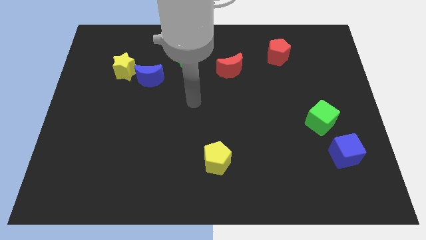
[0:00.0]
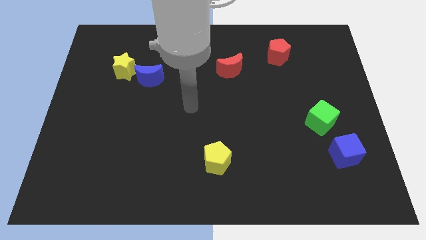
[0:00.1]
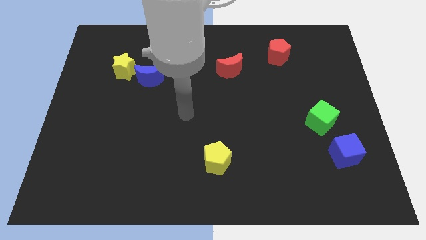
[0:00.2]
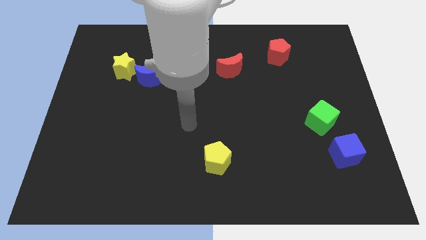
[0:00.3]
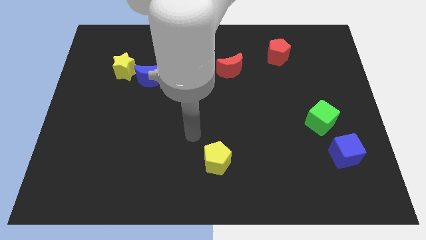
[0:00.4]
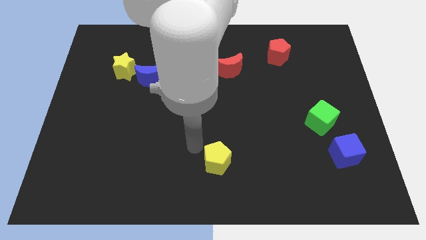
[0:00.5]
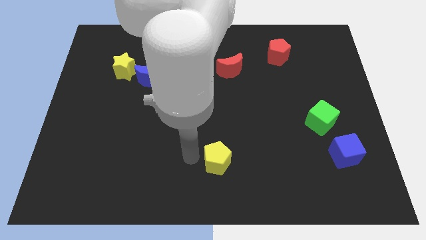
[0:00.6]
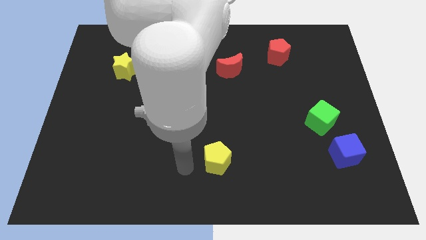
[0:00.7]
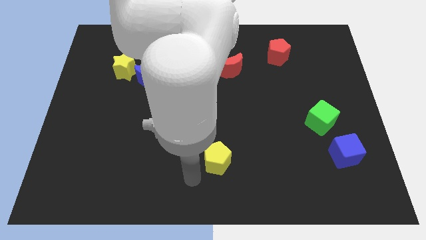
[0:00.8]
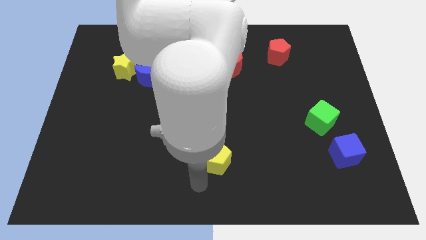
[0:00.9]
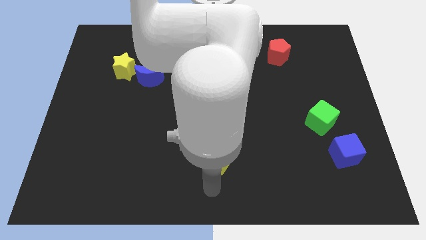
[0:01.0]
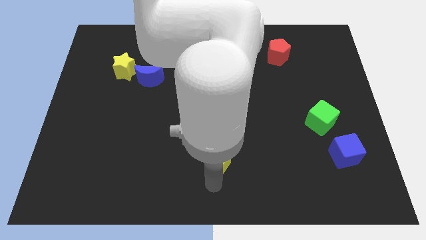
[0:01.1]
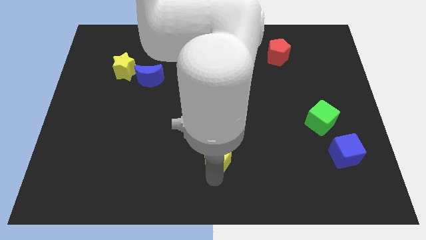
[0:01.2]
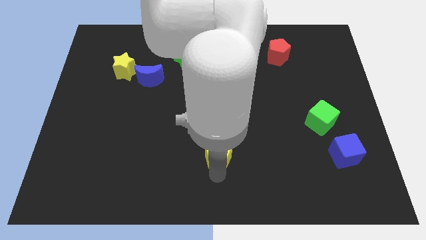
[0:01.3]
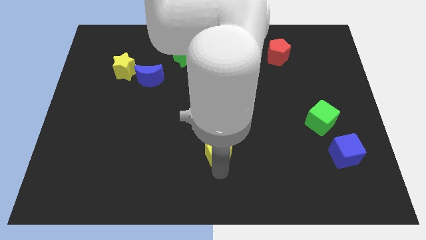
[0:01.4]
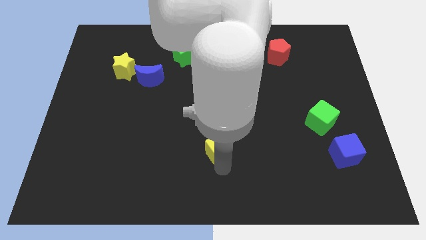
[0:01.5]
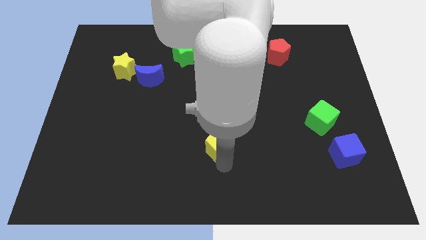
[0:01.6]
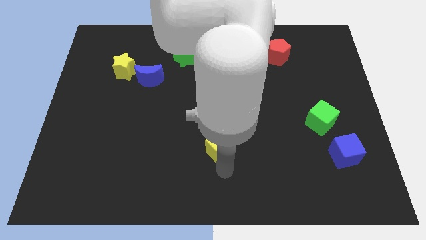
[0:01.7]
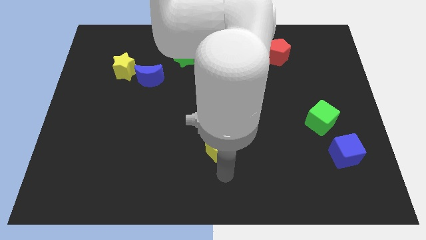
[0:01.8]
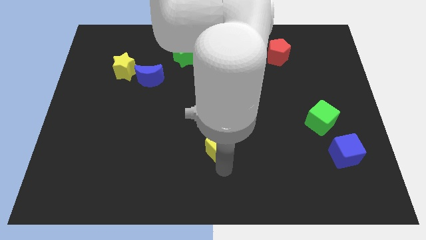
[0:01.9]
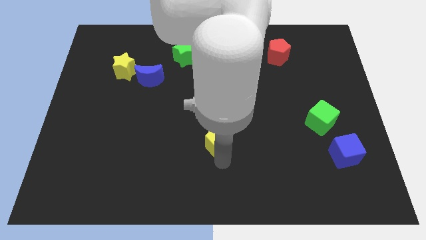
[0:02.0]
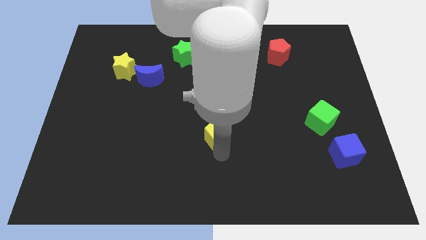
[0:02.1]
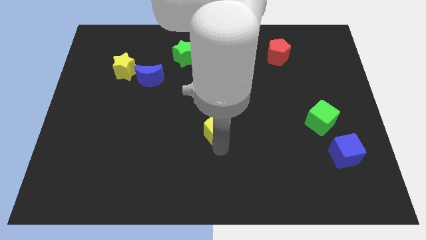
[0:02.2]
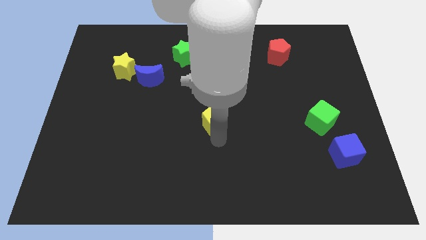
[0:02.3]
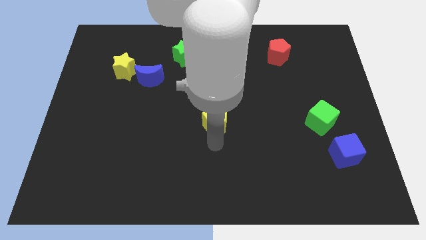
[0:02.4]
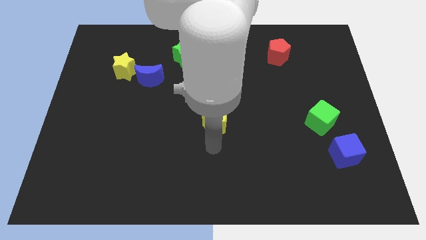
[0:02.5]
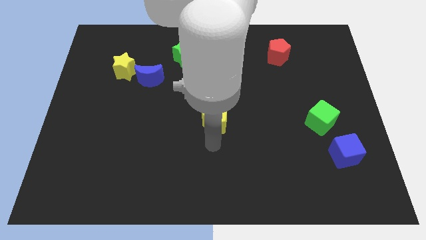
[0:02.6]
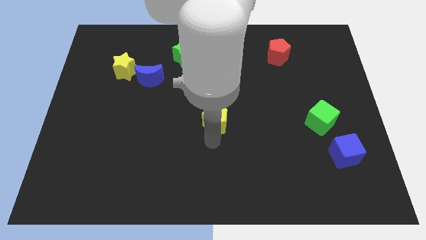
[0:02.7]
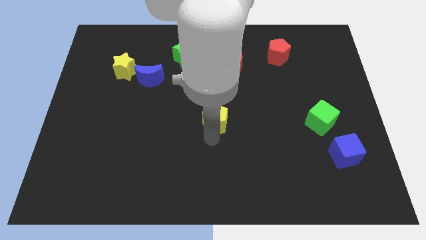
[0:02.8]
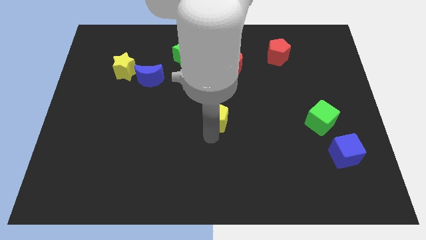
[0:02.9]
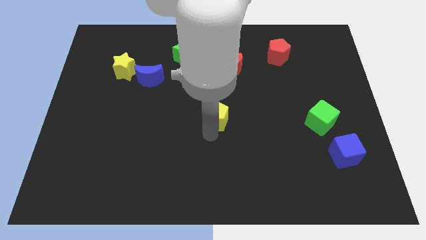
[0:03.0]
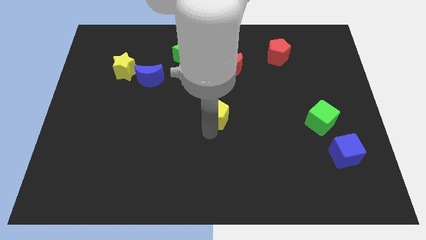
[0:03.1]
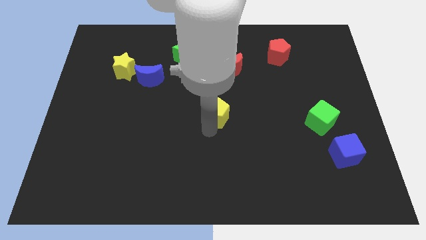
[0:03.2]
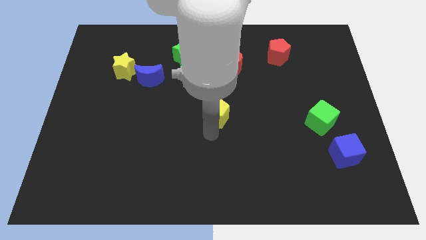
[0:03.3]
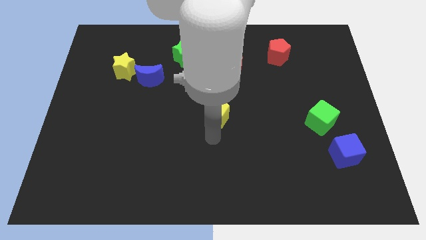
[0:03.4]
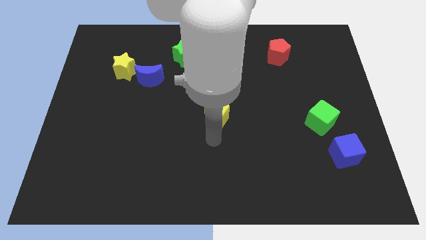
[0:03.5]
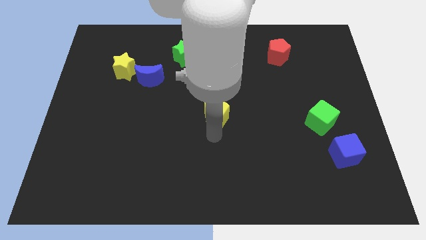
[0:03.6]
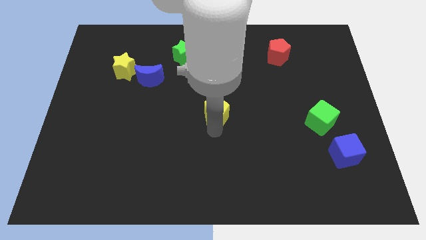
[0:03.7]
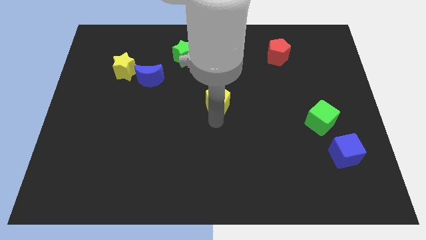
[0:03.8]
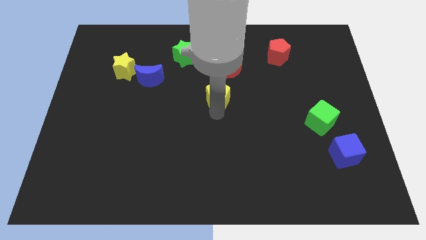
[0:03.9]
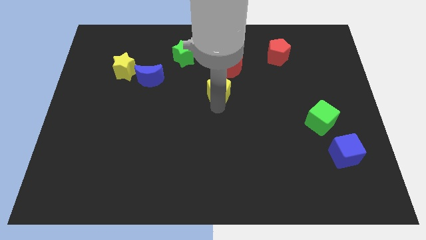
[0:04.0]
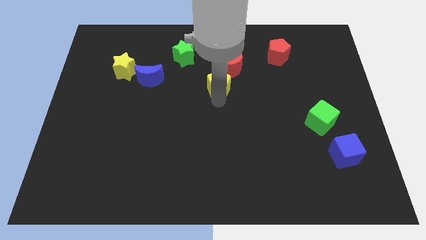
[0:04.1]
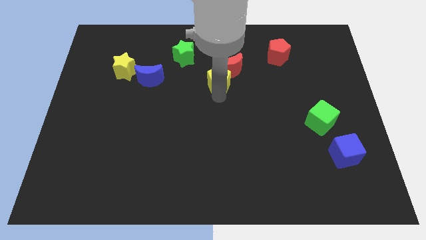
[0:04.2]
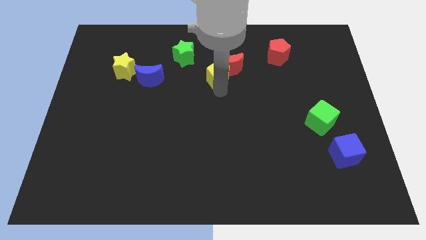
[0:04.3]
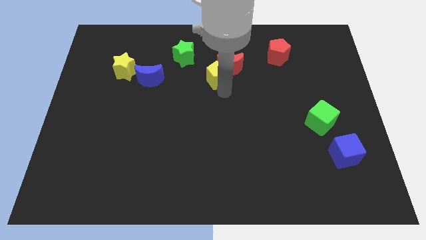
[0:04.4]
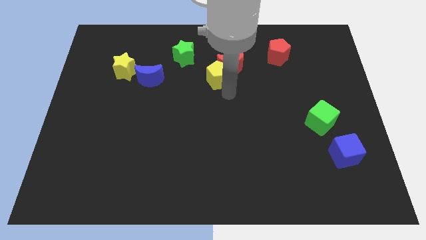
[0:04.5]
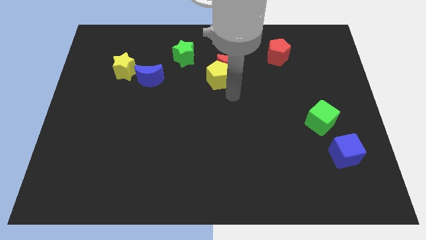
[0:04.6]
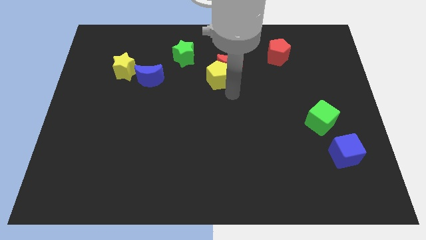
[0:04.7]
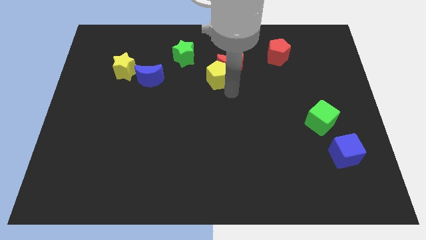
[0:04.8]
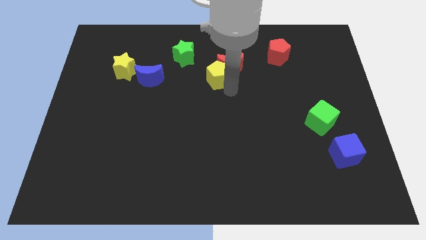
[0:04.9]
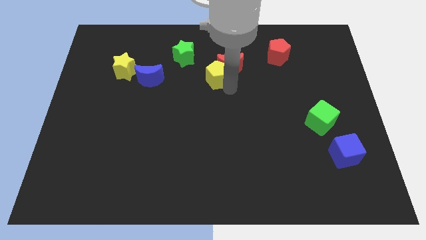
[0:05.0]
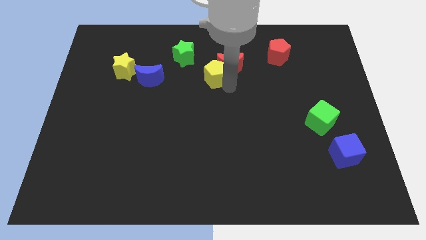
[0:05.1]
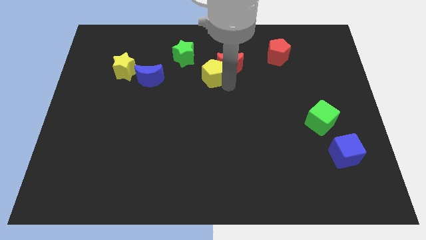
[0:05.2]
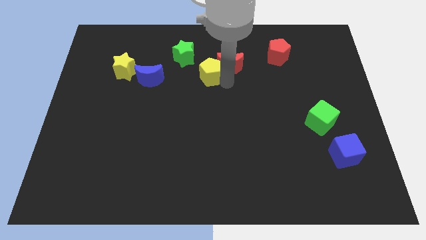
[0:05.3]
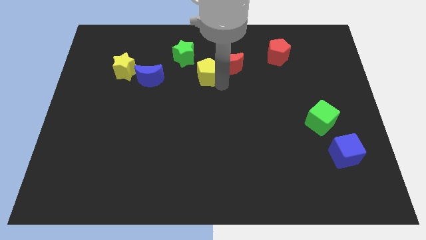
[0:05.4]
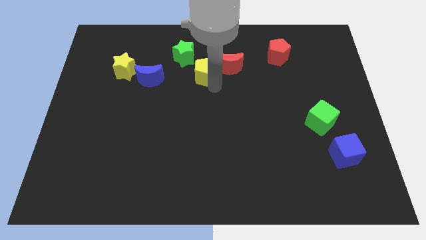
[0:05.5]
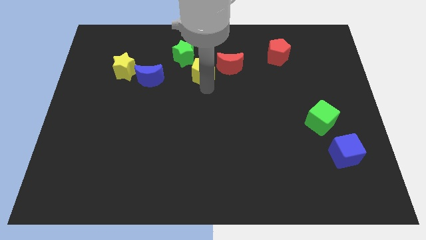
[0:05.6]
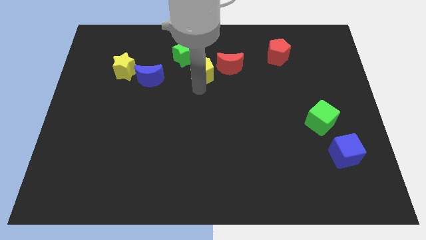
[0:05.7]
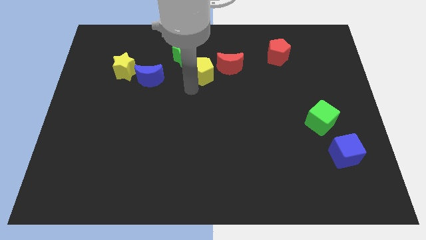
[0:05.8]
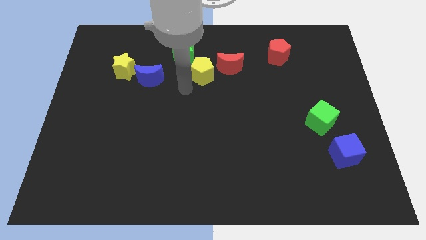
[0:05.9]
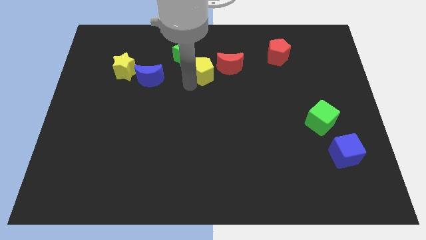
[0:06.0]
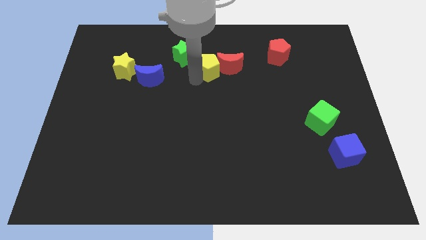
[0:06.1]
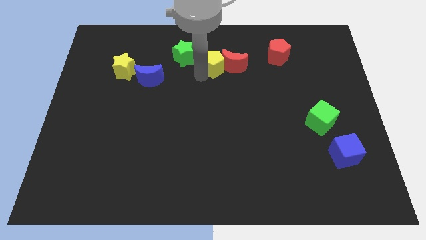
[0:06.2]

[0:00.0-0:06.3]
put the yellow pentagon to the right side of the green star

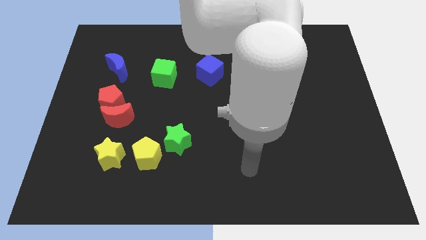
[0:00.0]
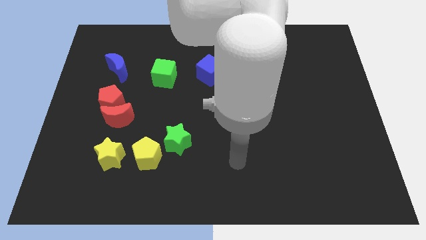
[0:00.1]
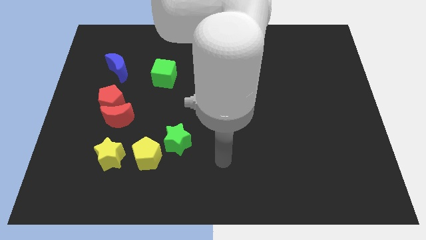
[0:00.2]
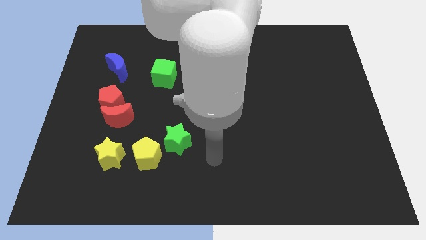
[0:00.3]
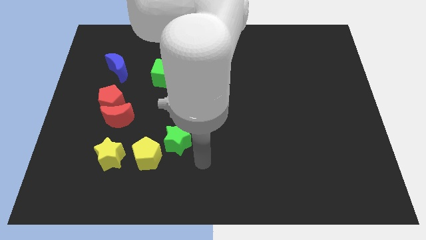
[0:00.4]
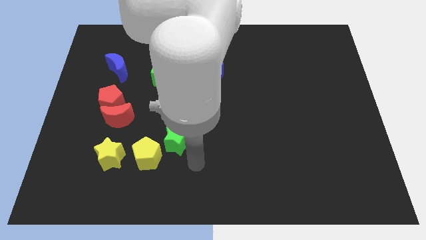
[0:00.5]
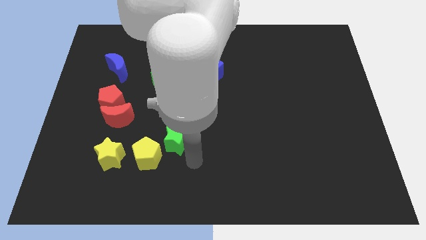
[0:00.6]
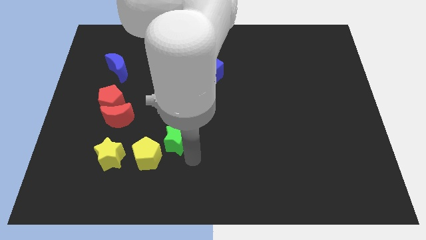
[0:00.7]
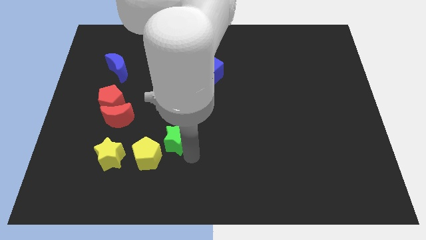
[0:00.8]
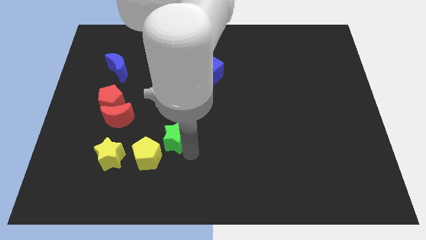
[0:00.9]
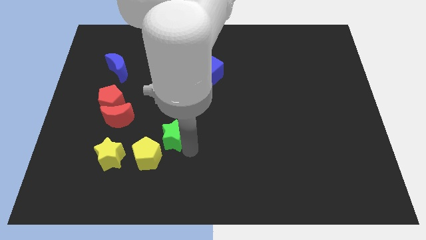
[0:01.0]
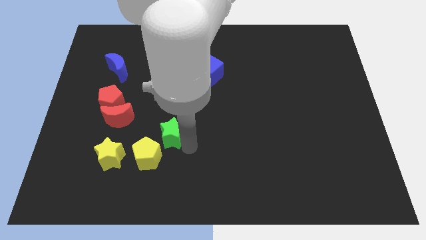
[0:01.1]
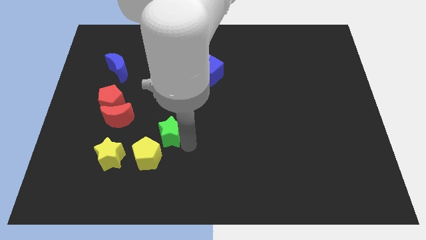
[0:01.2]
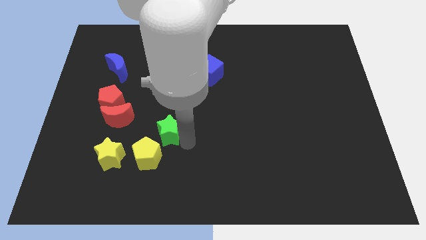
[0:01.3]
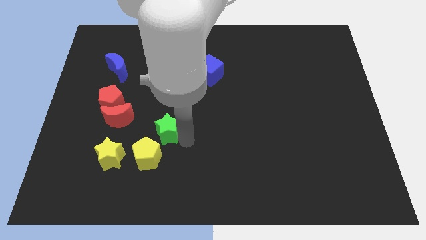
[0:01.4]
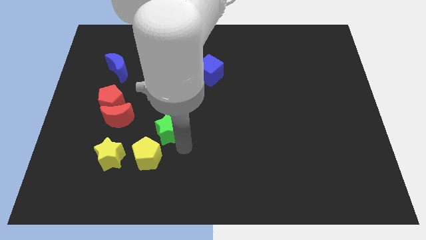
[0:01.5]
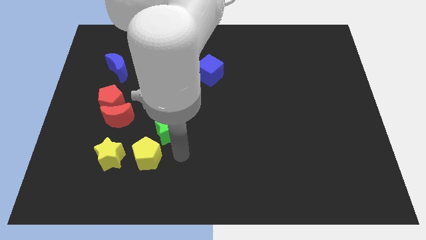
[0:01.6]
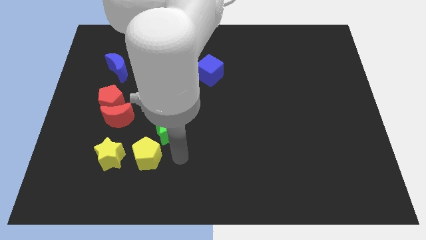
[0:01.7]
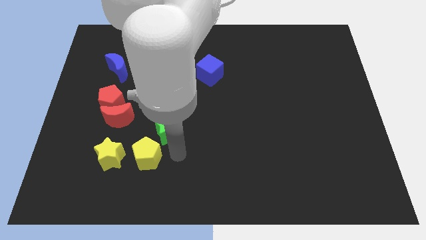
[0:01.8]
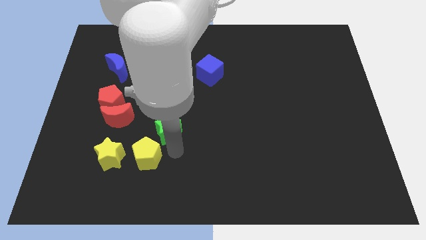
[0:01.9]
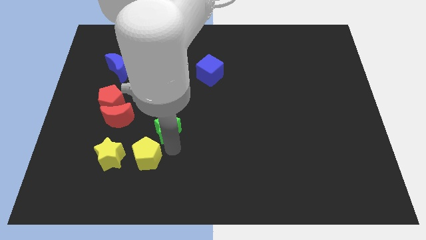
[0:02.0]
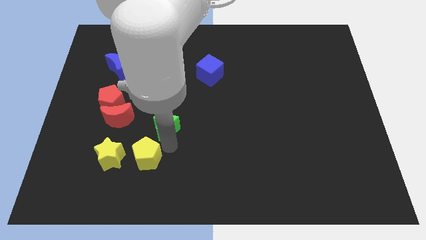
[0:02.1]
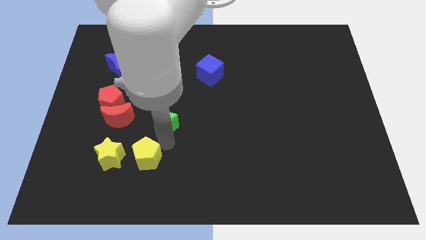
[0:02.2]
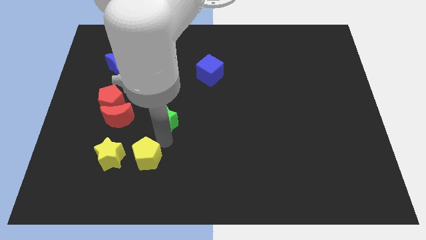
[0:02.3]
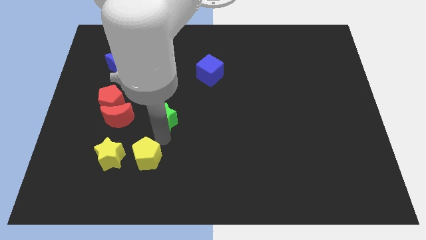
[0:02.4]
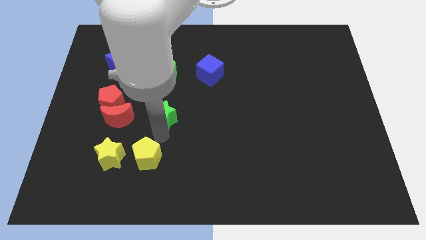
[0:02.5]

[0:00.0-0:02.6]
push the green star to the right side of the red pentagon
